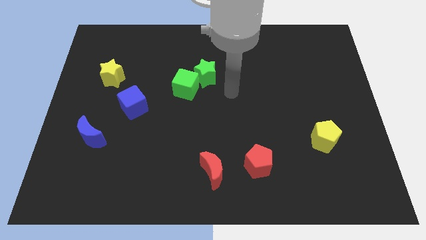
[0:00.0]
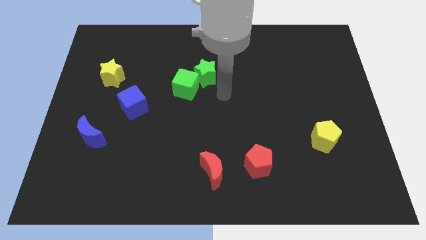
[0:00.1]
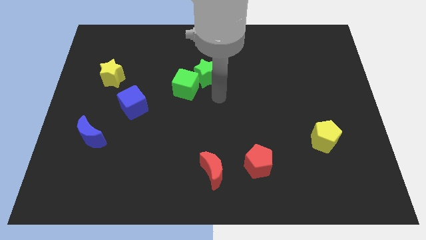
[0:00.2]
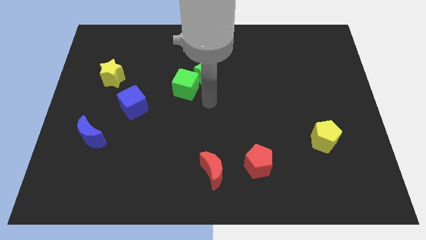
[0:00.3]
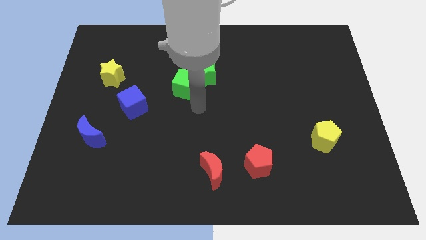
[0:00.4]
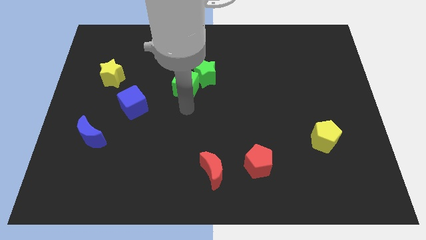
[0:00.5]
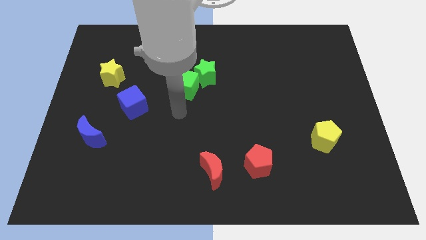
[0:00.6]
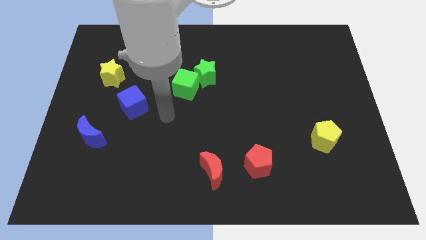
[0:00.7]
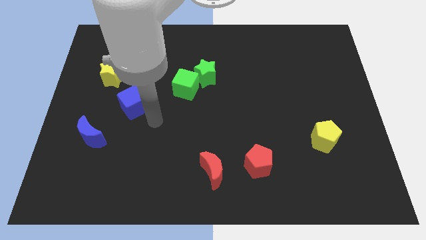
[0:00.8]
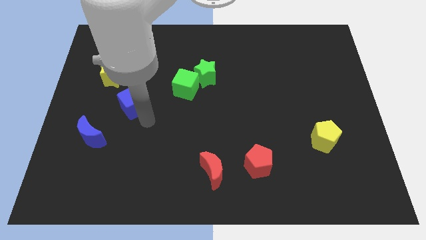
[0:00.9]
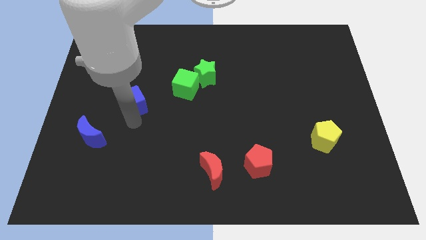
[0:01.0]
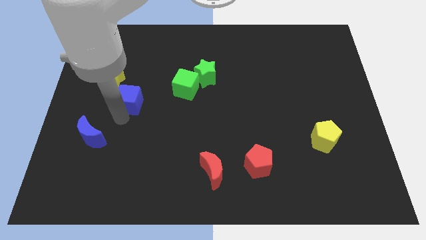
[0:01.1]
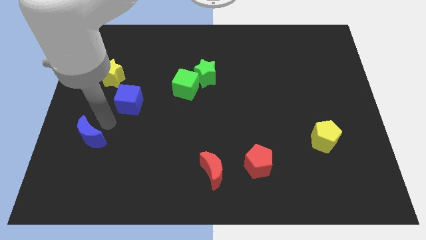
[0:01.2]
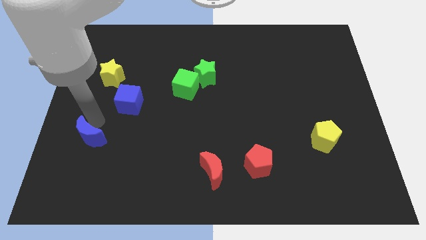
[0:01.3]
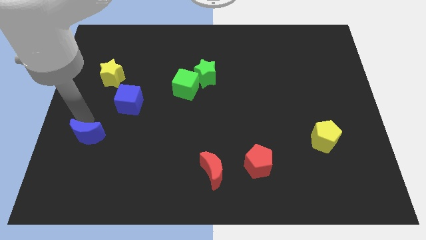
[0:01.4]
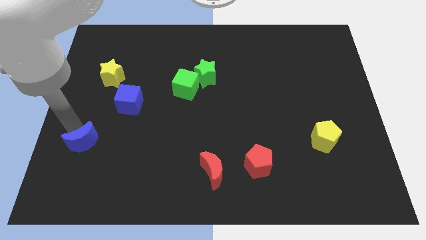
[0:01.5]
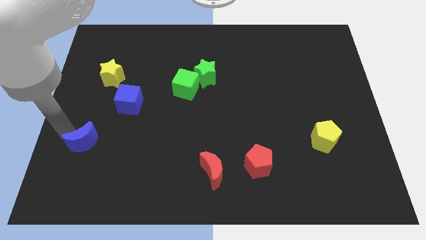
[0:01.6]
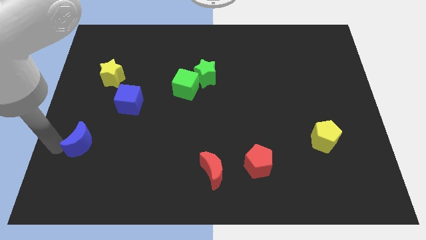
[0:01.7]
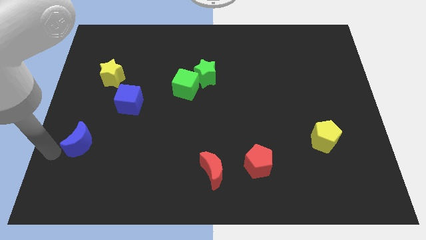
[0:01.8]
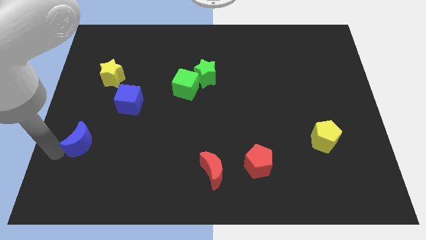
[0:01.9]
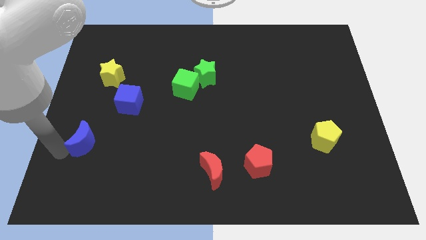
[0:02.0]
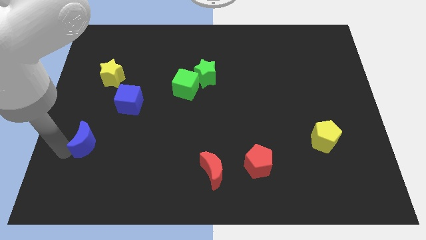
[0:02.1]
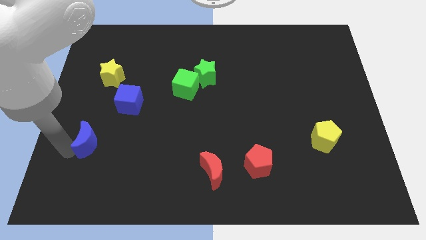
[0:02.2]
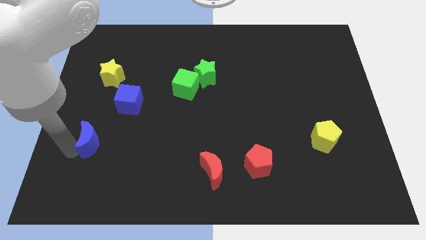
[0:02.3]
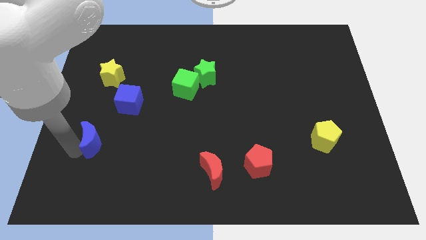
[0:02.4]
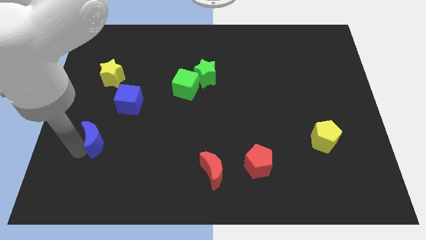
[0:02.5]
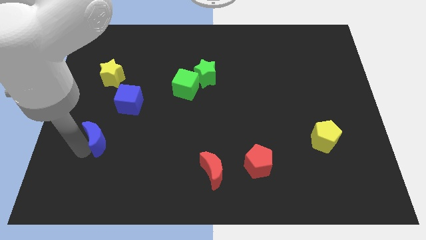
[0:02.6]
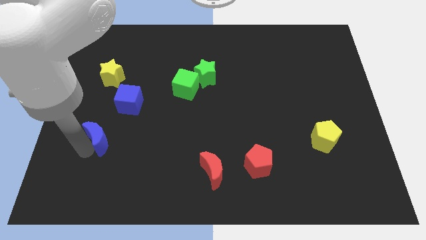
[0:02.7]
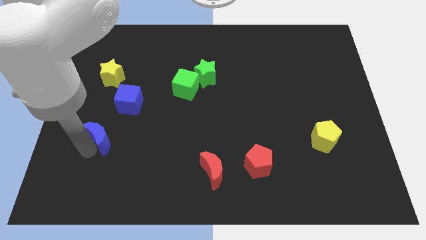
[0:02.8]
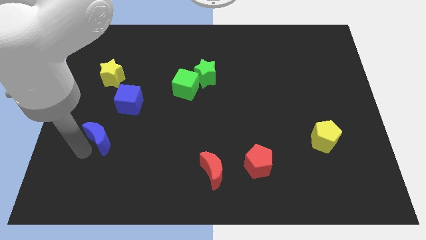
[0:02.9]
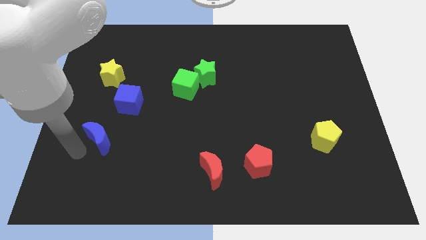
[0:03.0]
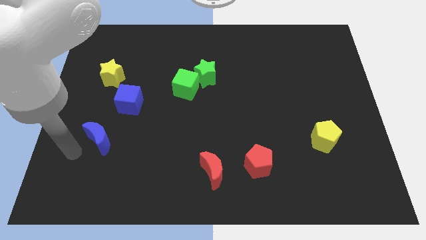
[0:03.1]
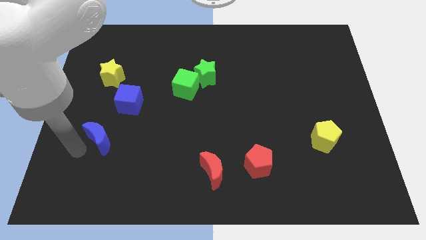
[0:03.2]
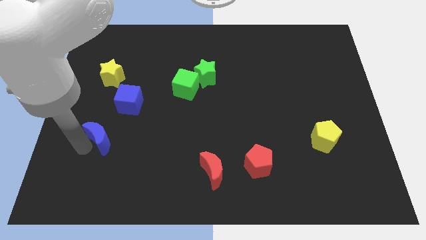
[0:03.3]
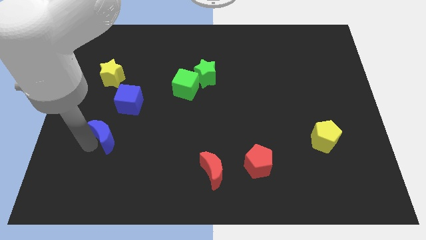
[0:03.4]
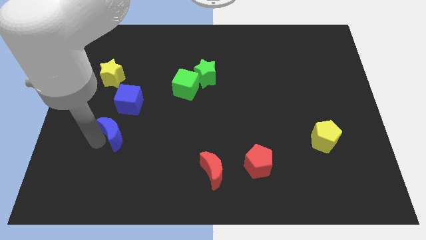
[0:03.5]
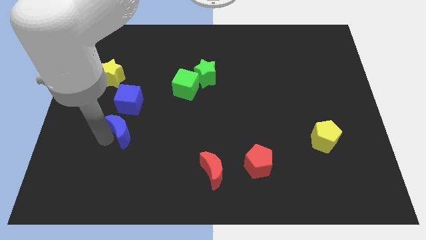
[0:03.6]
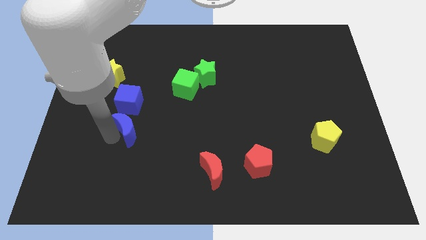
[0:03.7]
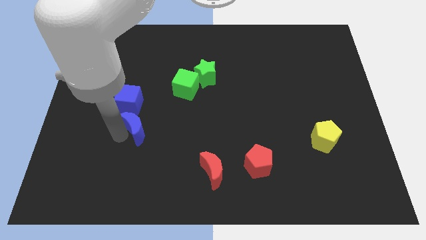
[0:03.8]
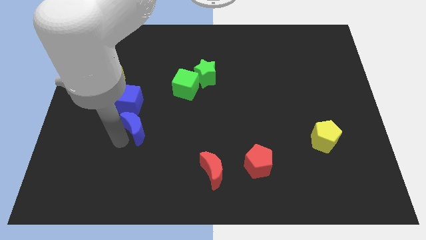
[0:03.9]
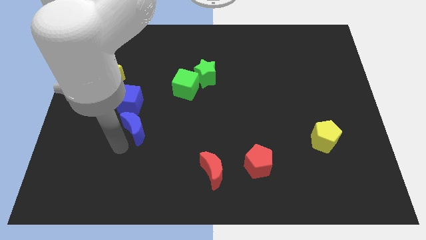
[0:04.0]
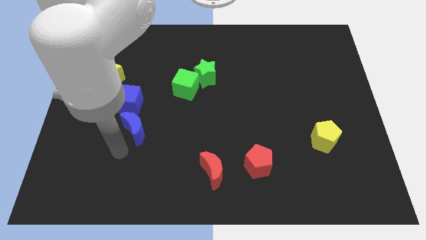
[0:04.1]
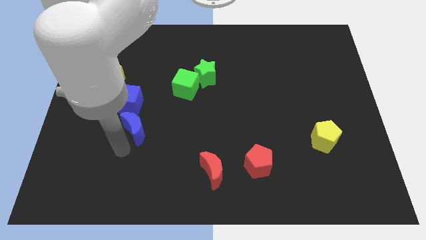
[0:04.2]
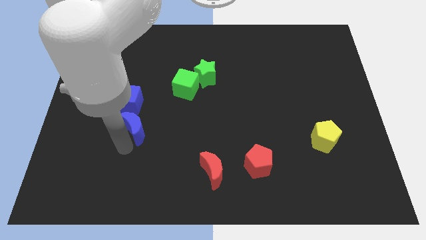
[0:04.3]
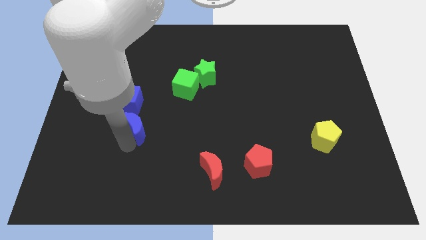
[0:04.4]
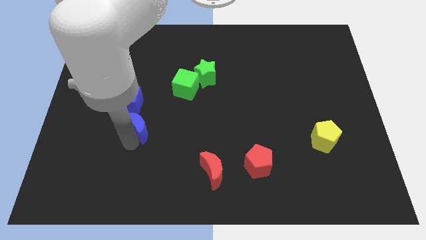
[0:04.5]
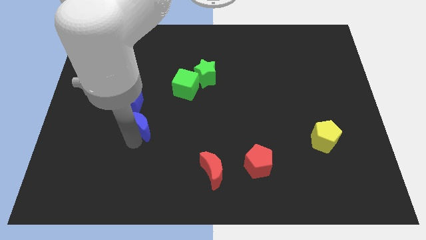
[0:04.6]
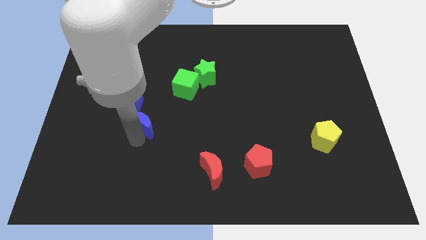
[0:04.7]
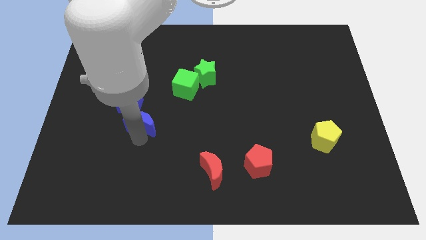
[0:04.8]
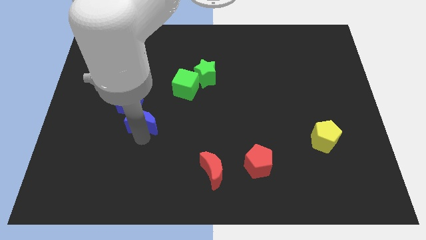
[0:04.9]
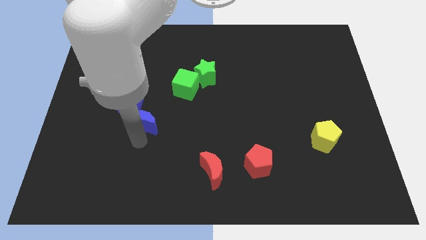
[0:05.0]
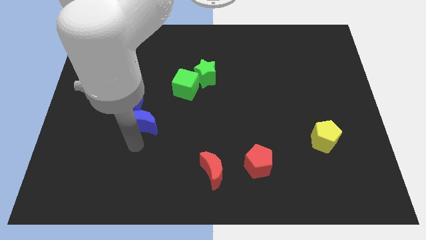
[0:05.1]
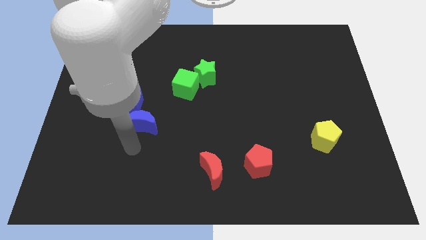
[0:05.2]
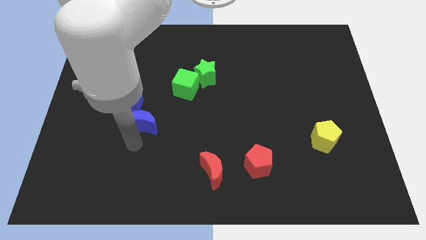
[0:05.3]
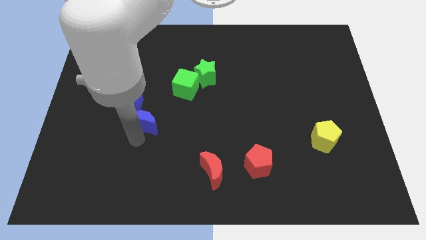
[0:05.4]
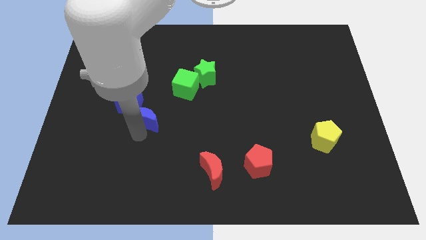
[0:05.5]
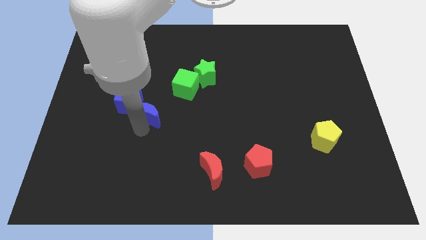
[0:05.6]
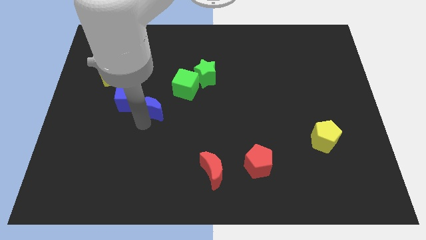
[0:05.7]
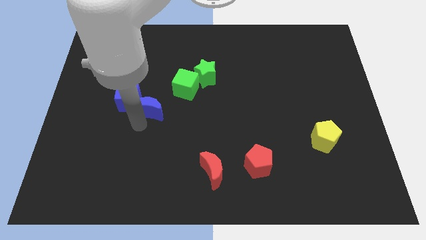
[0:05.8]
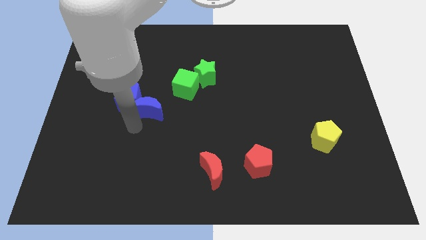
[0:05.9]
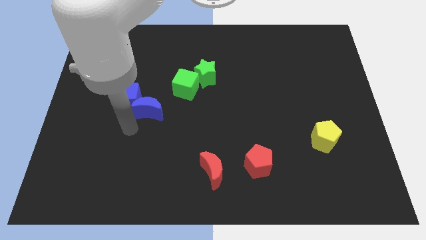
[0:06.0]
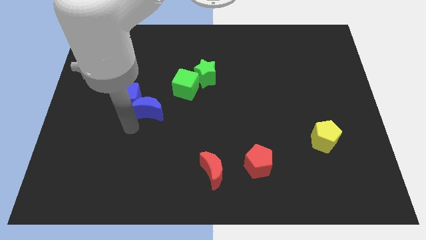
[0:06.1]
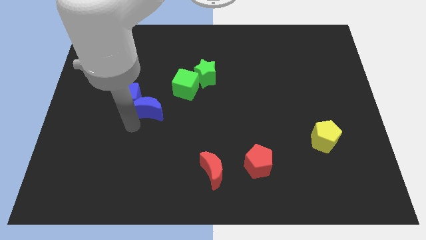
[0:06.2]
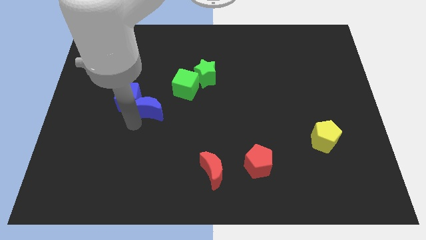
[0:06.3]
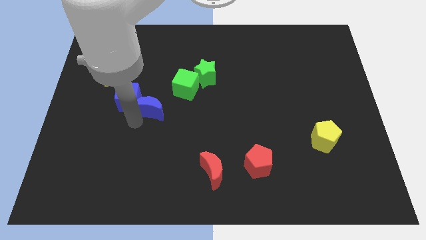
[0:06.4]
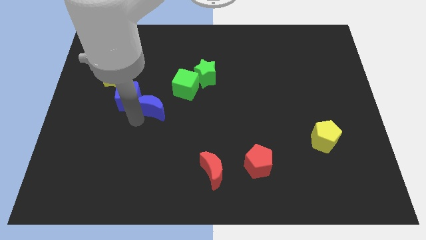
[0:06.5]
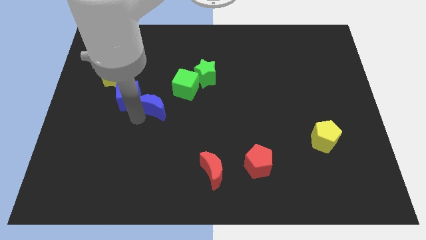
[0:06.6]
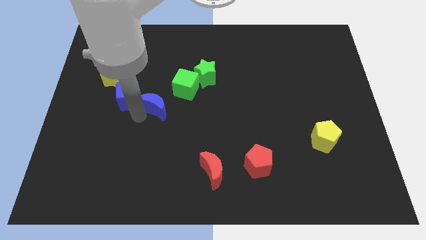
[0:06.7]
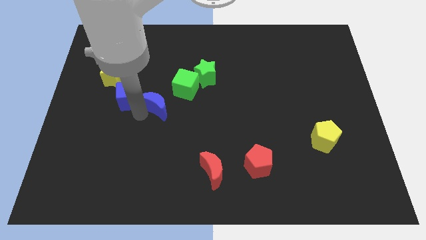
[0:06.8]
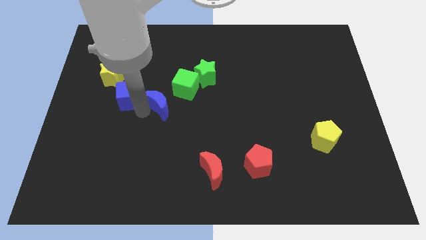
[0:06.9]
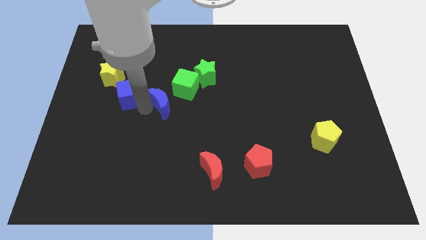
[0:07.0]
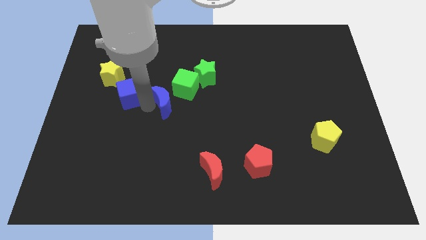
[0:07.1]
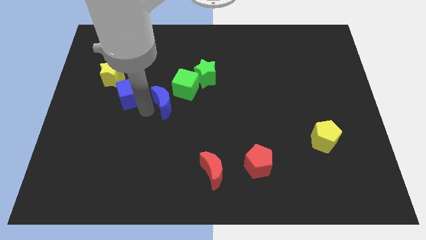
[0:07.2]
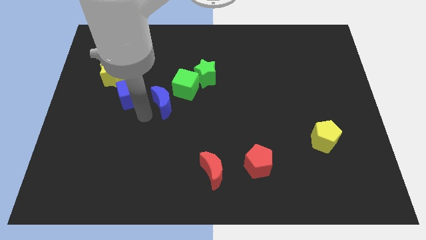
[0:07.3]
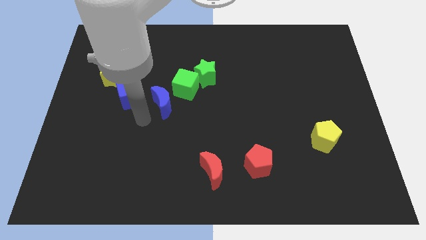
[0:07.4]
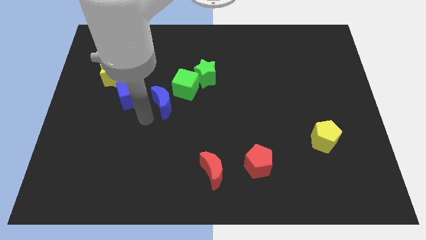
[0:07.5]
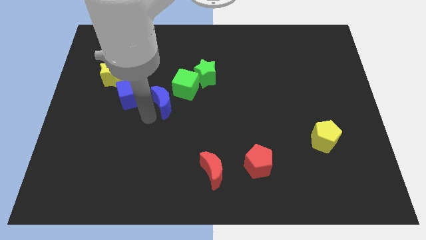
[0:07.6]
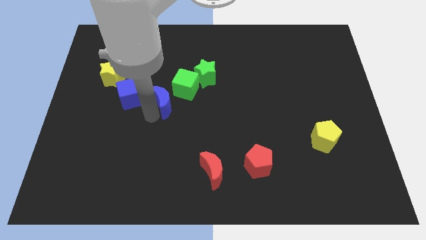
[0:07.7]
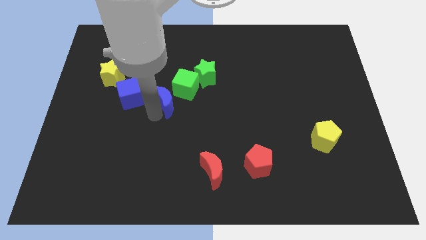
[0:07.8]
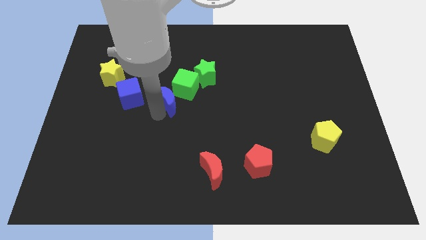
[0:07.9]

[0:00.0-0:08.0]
slide the blue moon towards the green cube
